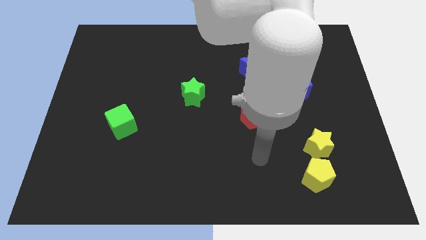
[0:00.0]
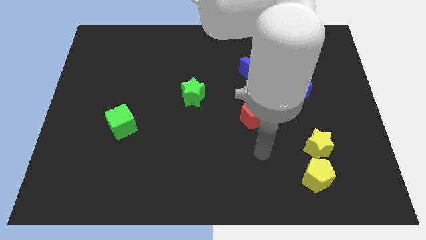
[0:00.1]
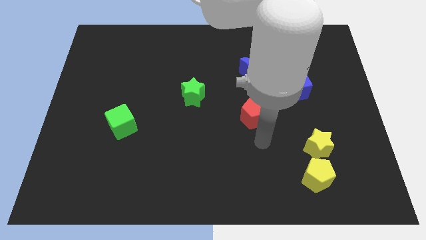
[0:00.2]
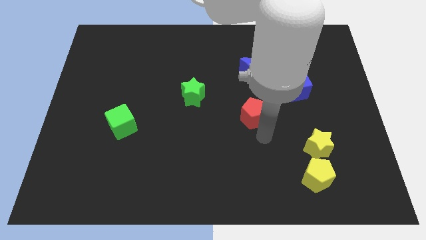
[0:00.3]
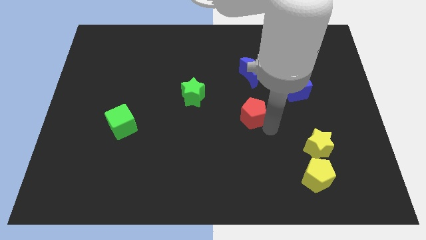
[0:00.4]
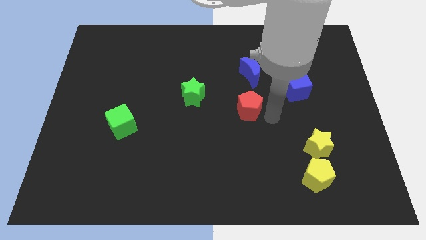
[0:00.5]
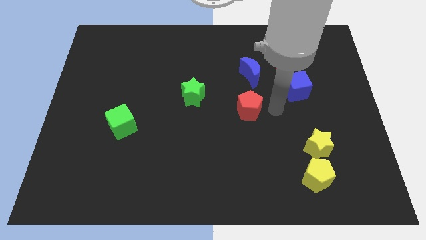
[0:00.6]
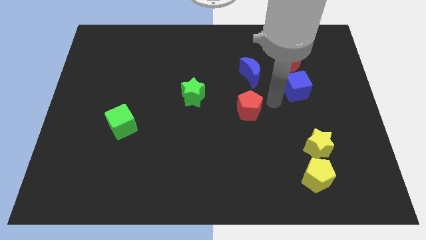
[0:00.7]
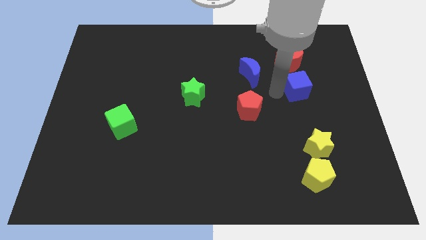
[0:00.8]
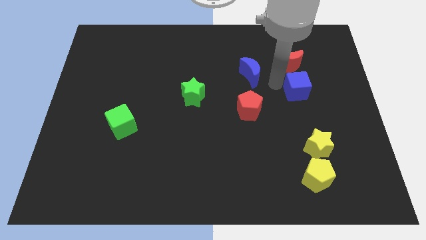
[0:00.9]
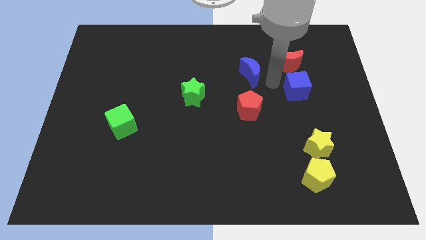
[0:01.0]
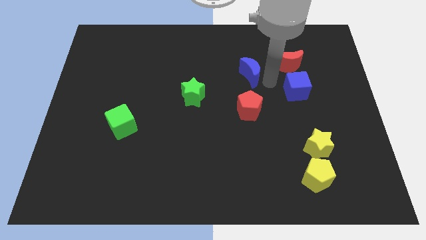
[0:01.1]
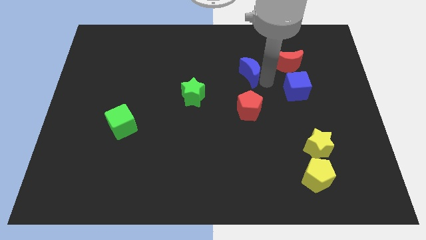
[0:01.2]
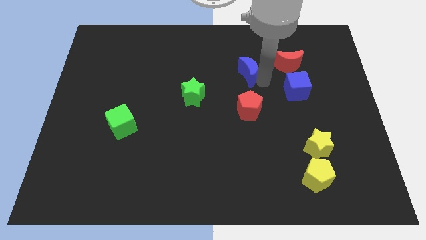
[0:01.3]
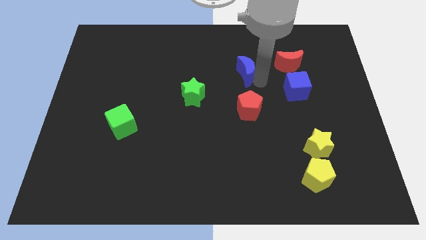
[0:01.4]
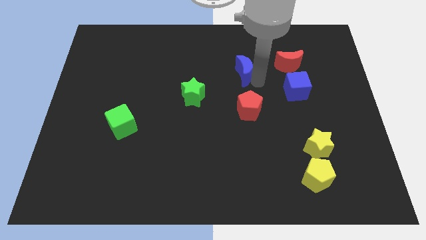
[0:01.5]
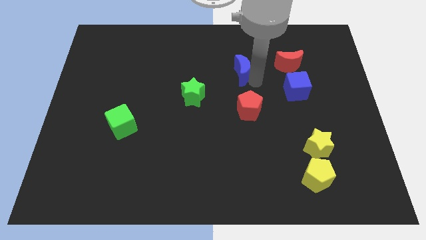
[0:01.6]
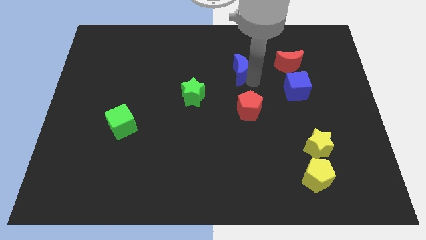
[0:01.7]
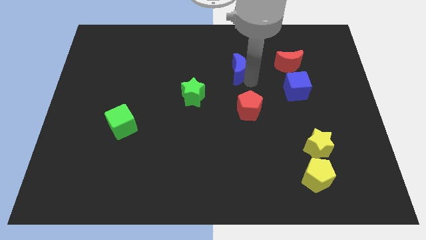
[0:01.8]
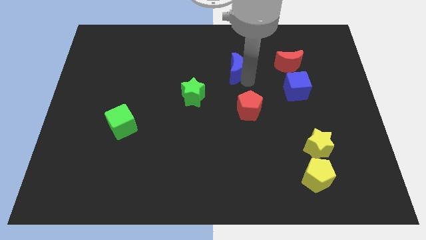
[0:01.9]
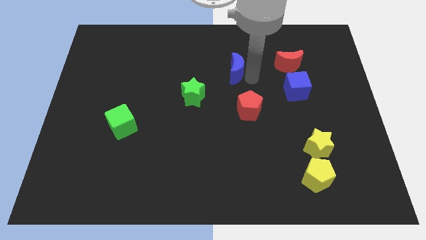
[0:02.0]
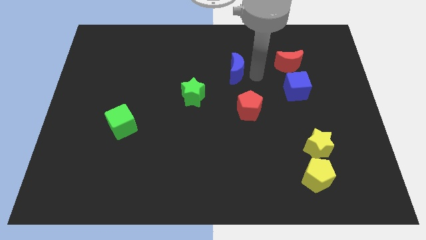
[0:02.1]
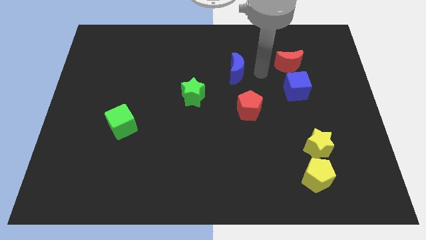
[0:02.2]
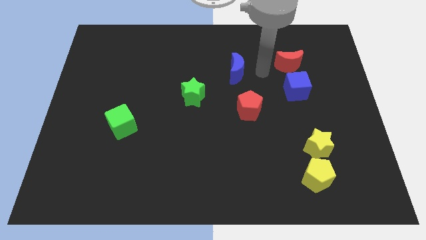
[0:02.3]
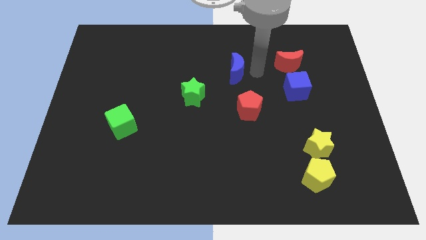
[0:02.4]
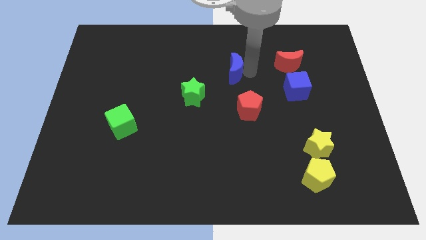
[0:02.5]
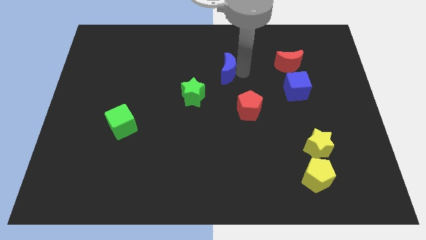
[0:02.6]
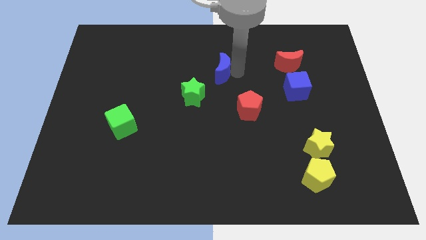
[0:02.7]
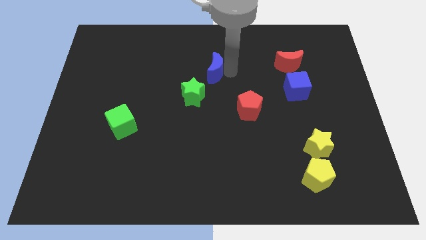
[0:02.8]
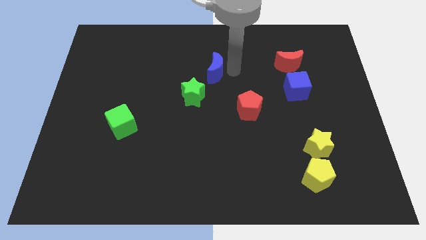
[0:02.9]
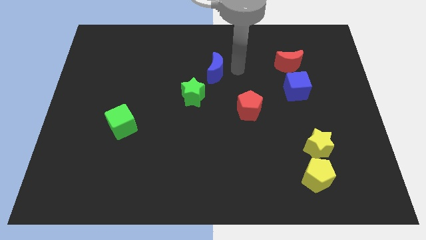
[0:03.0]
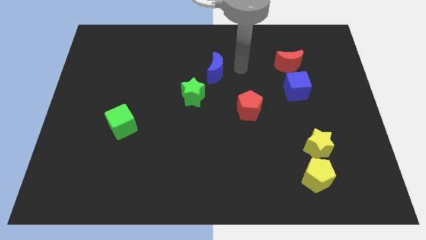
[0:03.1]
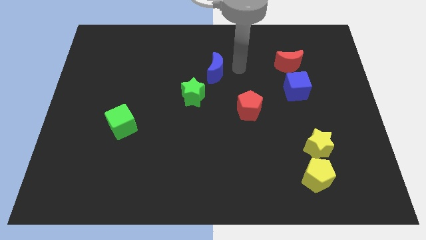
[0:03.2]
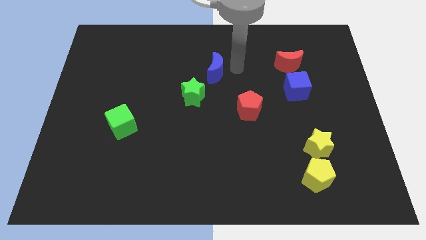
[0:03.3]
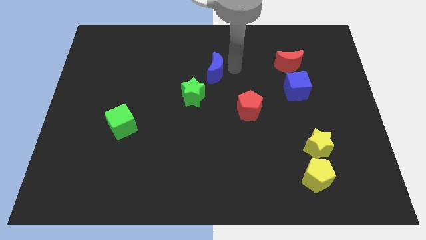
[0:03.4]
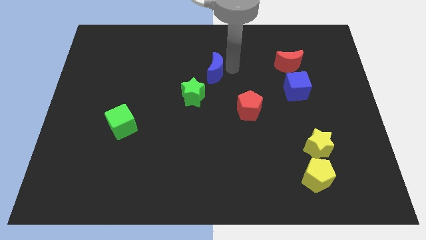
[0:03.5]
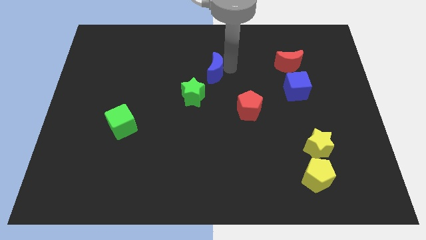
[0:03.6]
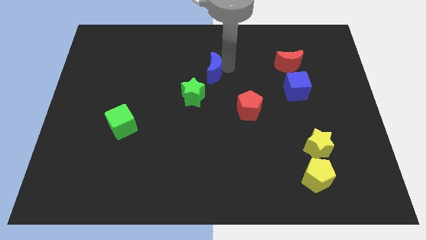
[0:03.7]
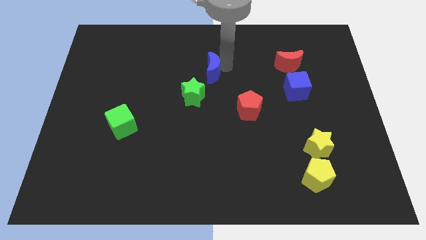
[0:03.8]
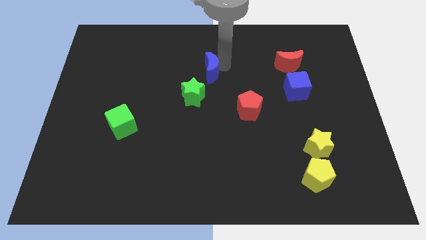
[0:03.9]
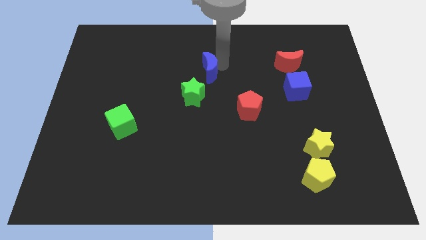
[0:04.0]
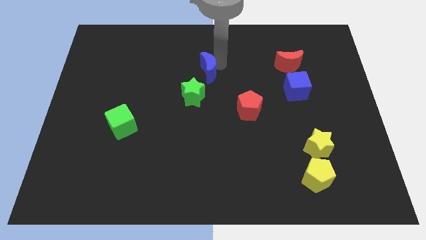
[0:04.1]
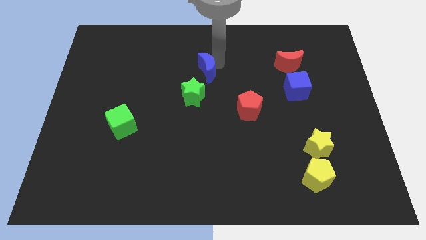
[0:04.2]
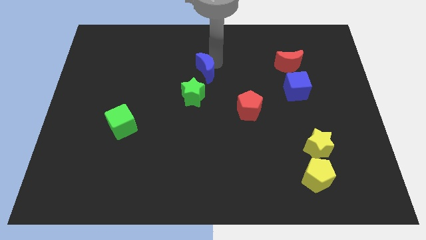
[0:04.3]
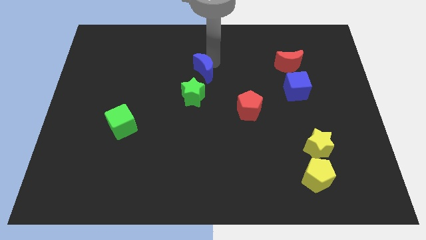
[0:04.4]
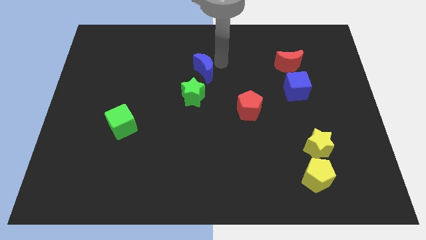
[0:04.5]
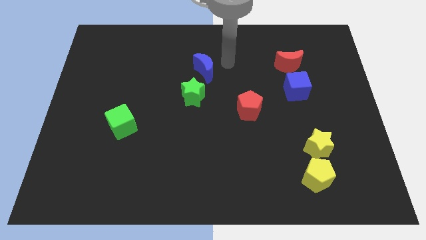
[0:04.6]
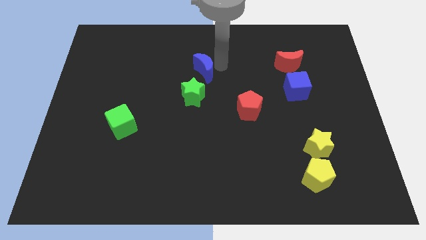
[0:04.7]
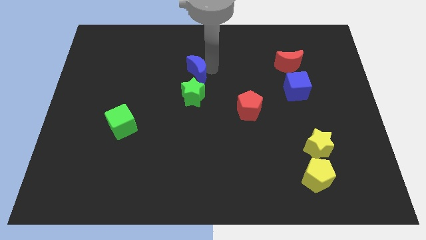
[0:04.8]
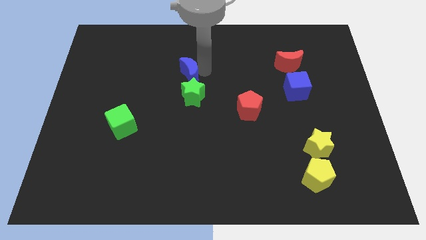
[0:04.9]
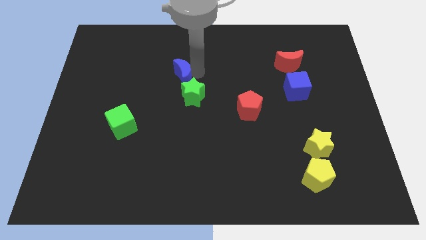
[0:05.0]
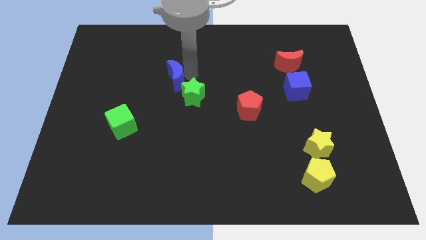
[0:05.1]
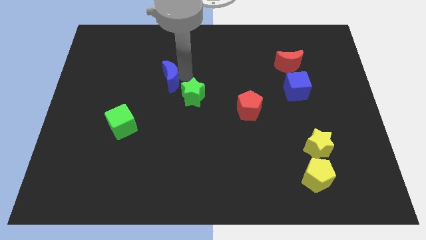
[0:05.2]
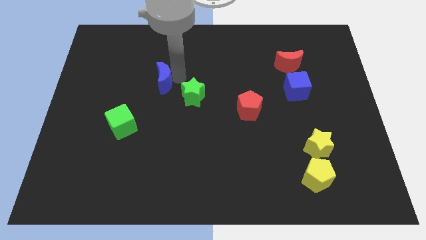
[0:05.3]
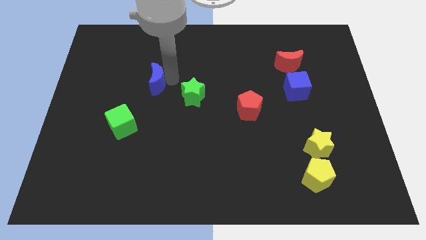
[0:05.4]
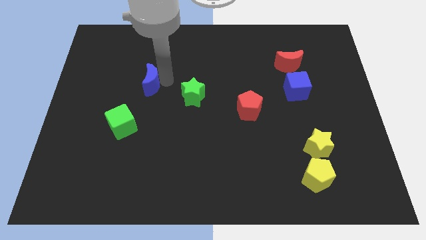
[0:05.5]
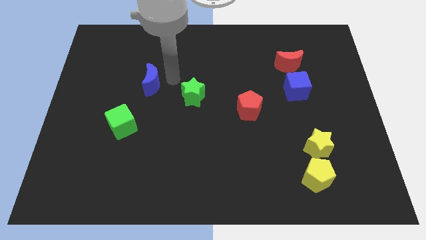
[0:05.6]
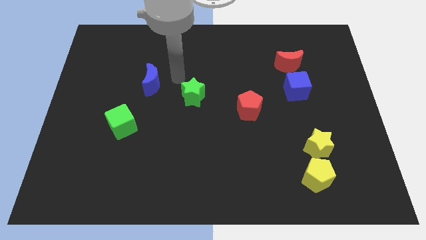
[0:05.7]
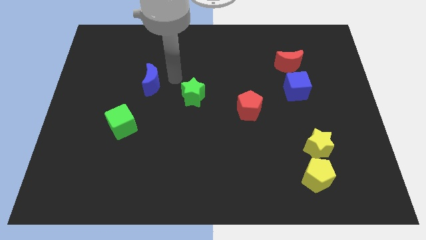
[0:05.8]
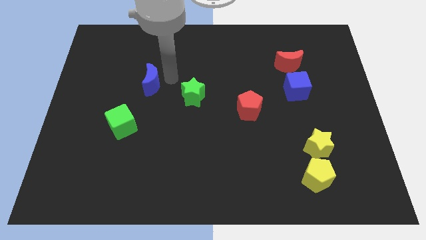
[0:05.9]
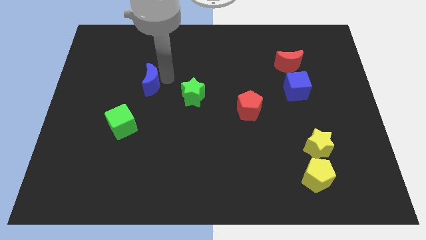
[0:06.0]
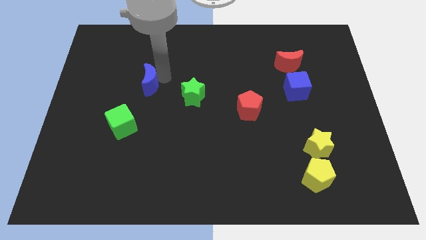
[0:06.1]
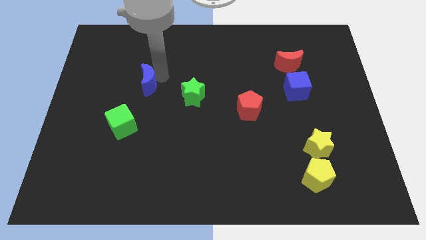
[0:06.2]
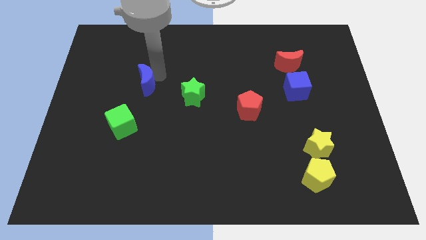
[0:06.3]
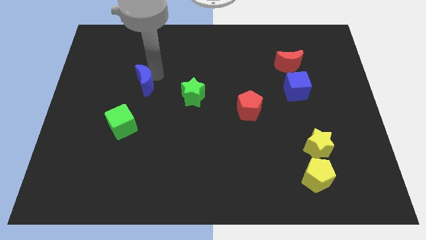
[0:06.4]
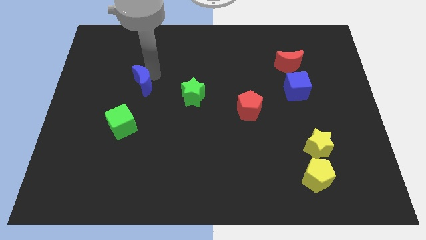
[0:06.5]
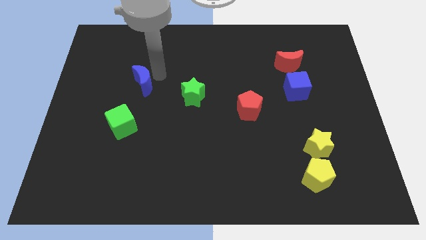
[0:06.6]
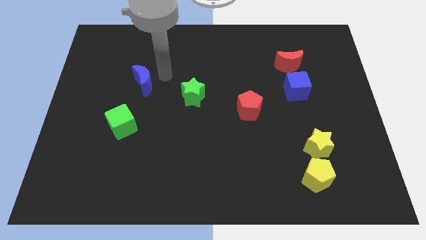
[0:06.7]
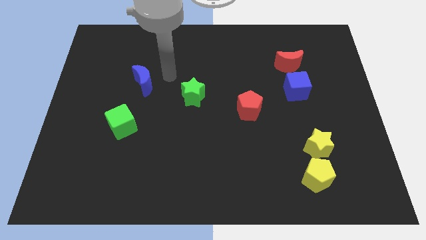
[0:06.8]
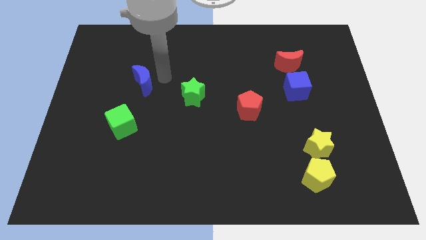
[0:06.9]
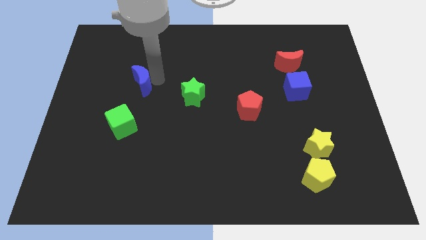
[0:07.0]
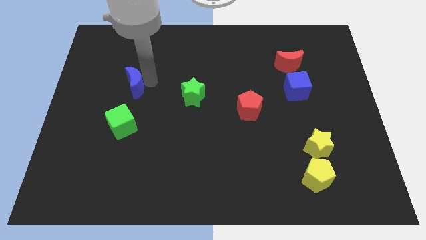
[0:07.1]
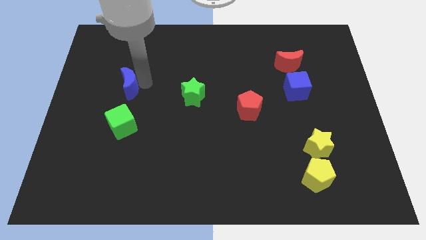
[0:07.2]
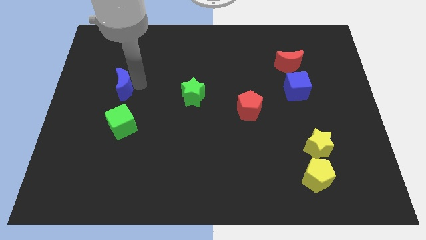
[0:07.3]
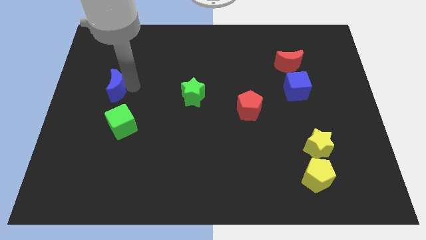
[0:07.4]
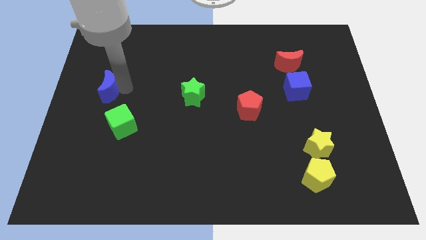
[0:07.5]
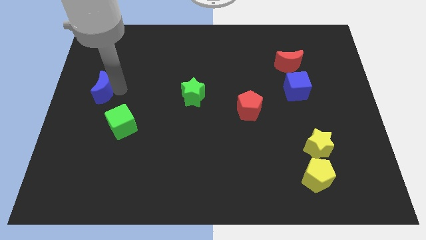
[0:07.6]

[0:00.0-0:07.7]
push the blue moon to the center left
